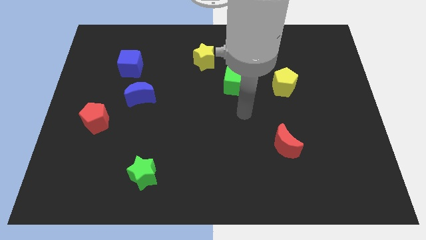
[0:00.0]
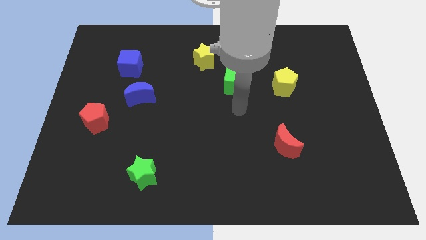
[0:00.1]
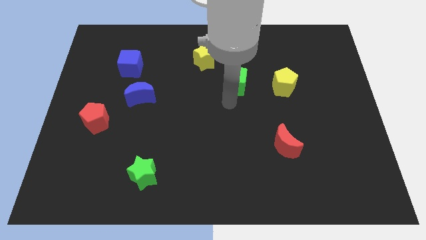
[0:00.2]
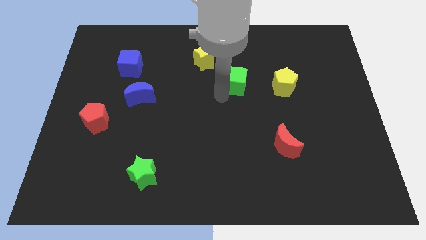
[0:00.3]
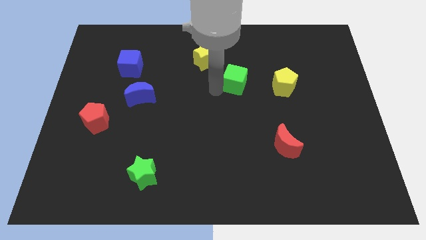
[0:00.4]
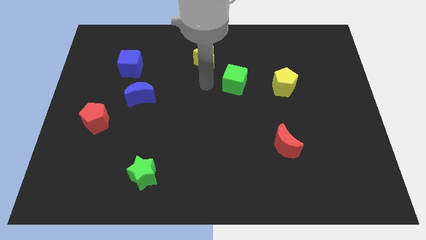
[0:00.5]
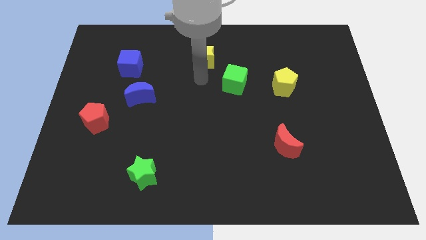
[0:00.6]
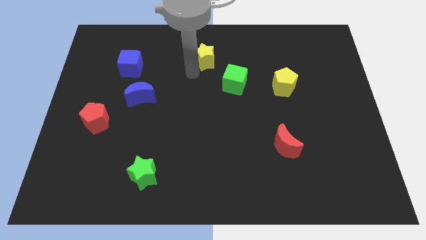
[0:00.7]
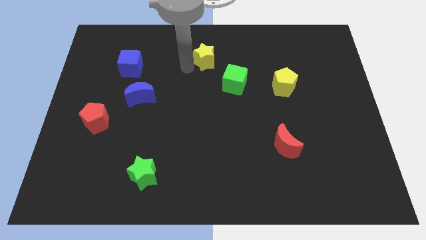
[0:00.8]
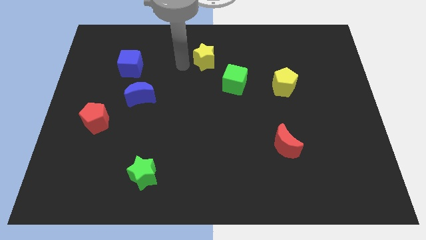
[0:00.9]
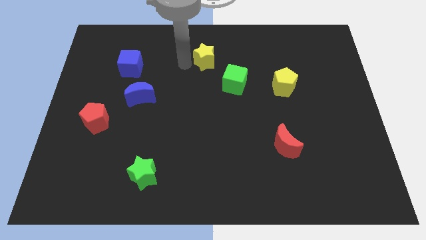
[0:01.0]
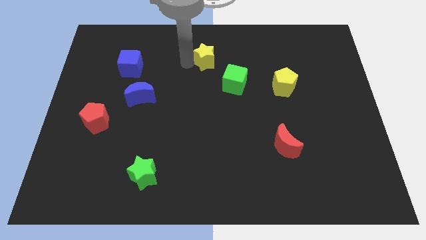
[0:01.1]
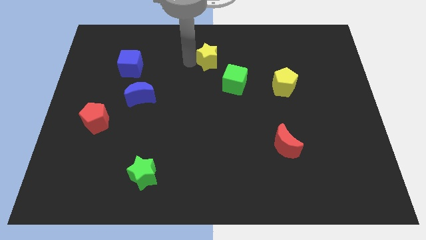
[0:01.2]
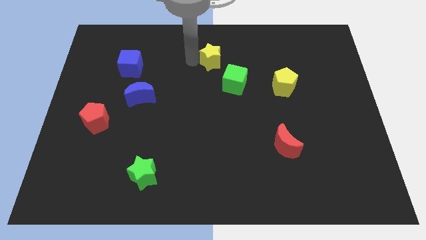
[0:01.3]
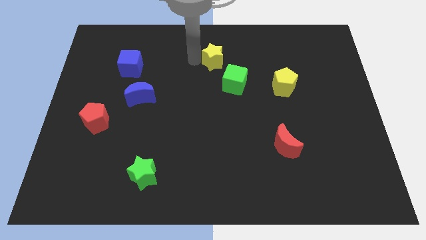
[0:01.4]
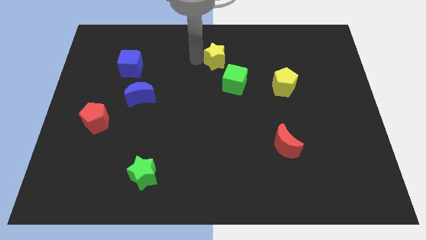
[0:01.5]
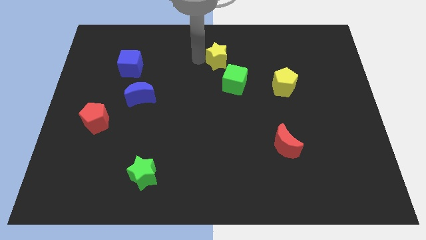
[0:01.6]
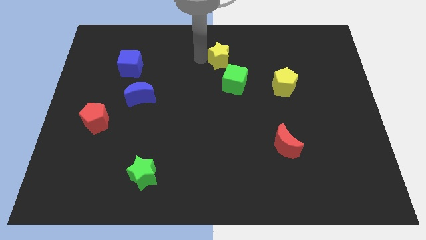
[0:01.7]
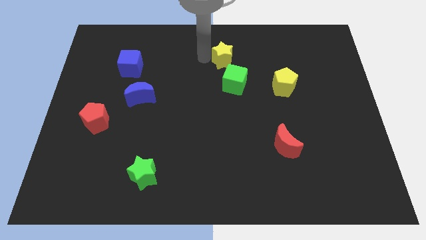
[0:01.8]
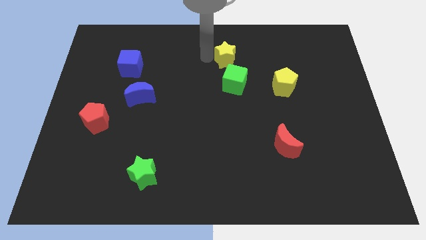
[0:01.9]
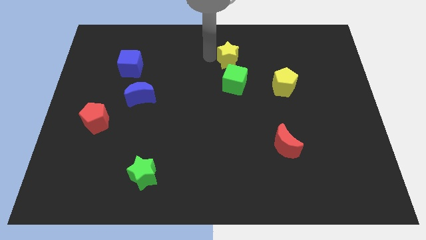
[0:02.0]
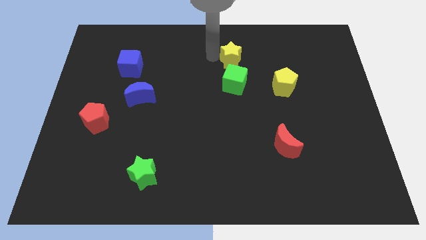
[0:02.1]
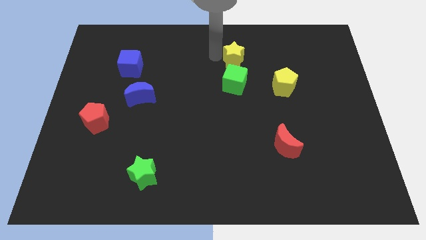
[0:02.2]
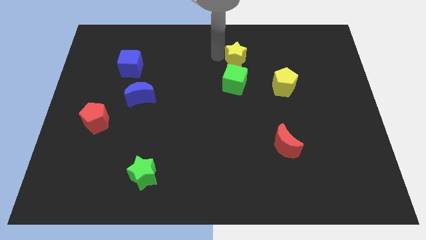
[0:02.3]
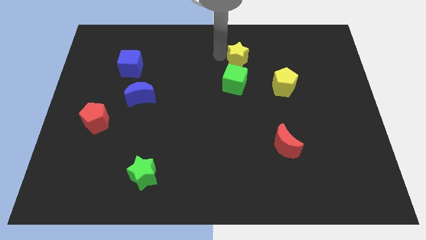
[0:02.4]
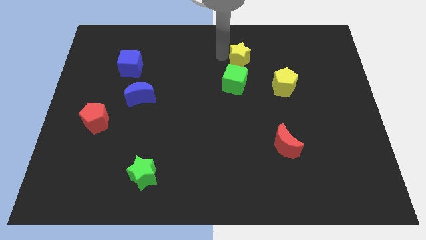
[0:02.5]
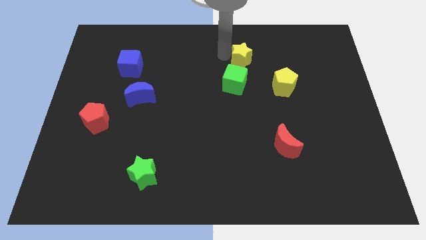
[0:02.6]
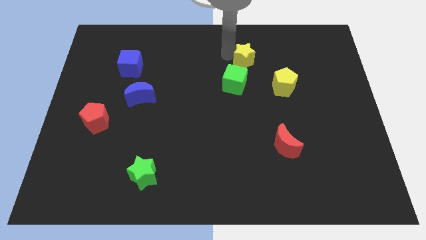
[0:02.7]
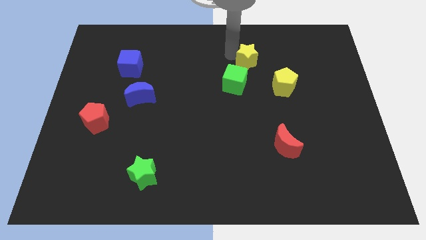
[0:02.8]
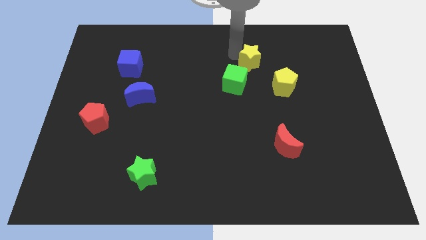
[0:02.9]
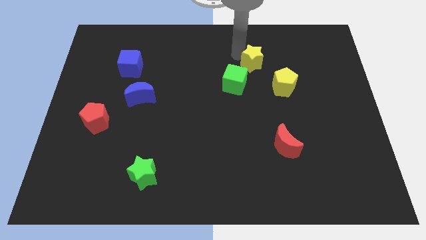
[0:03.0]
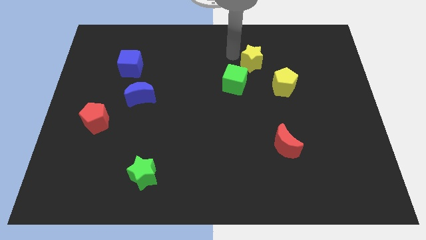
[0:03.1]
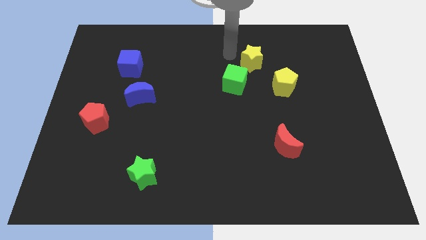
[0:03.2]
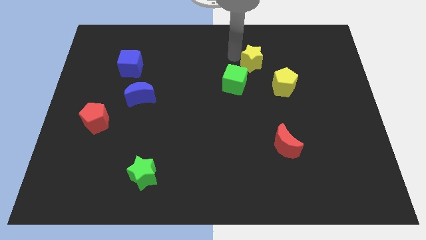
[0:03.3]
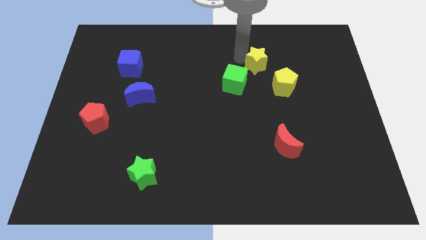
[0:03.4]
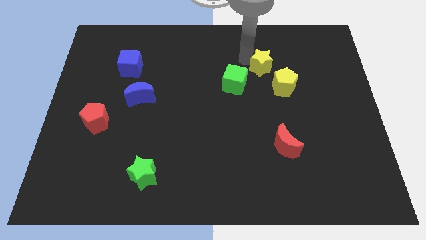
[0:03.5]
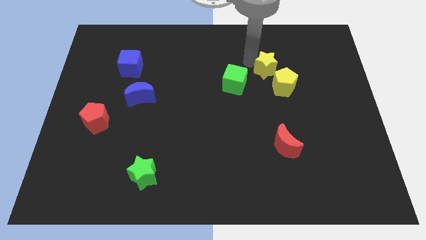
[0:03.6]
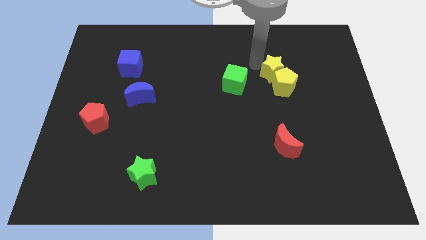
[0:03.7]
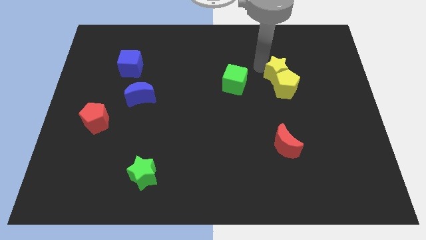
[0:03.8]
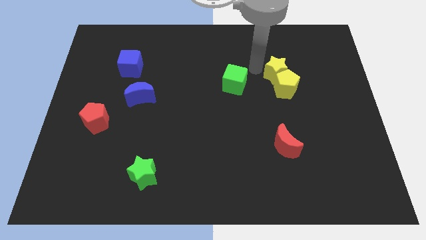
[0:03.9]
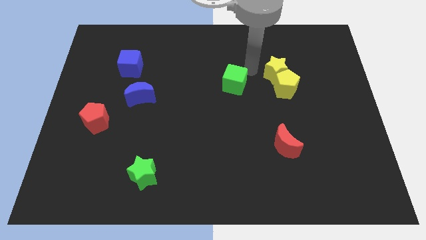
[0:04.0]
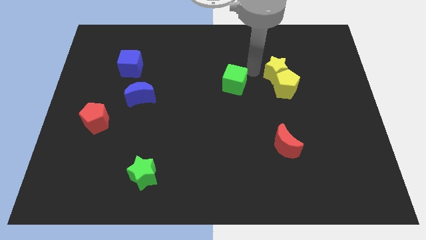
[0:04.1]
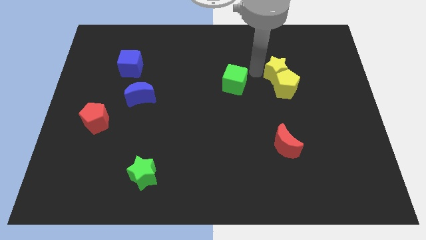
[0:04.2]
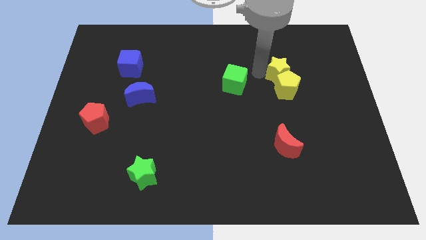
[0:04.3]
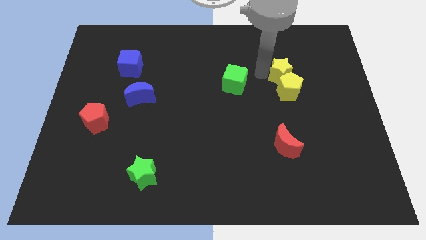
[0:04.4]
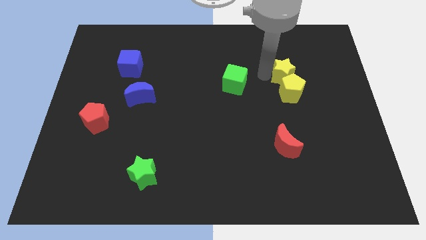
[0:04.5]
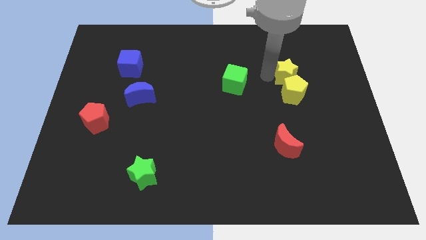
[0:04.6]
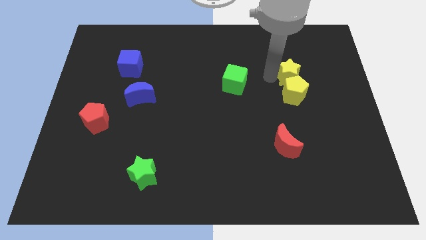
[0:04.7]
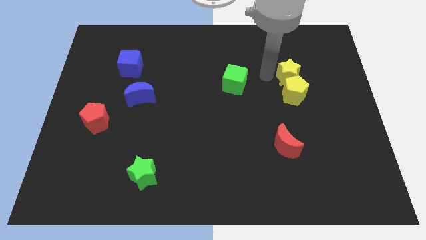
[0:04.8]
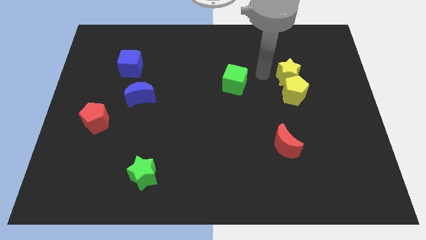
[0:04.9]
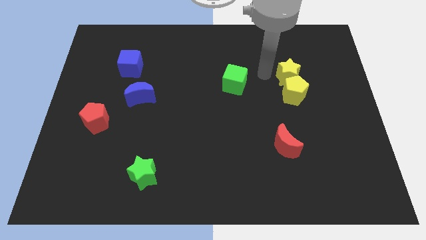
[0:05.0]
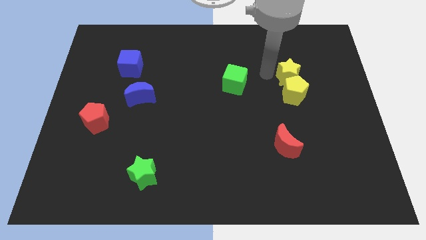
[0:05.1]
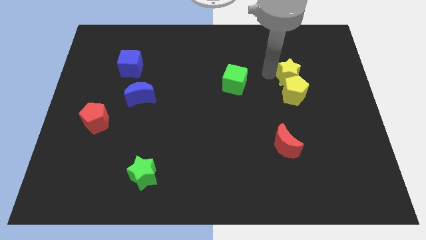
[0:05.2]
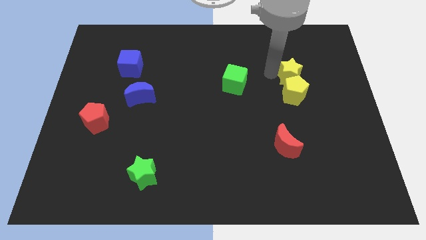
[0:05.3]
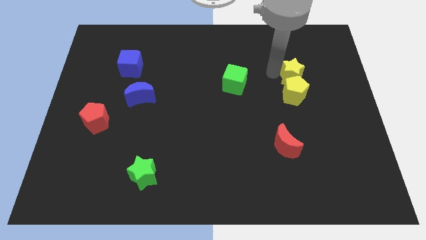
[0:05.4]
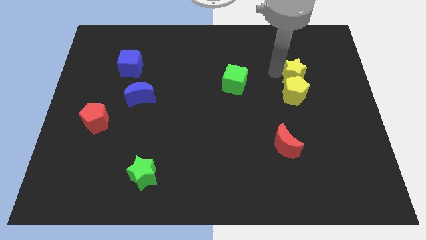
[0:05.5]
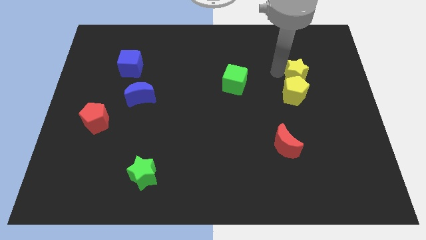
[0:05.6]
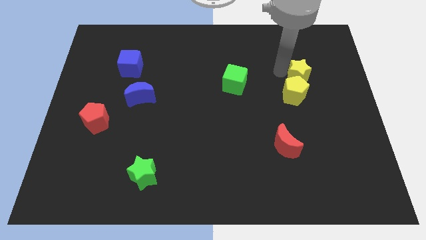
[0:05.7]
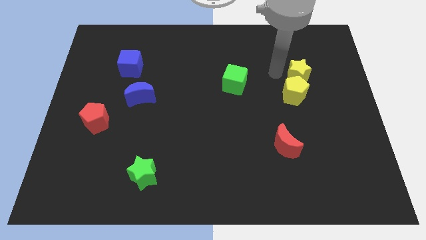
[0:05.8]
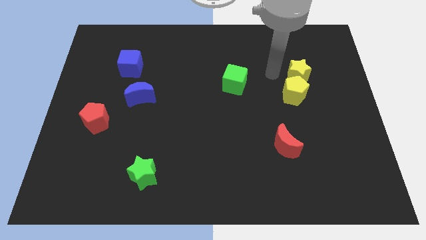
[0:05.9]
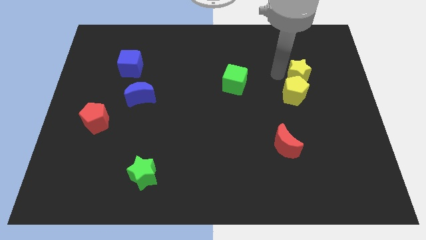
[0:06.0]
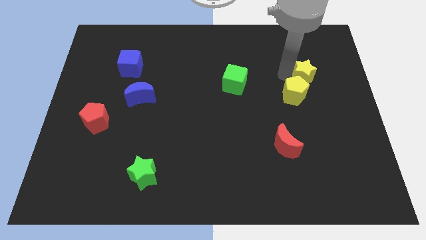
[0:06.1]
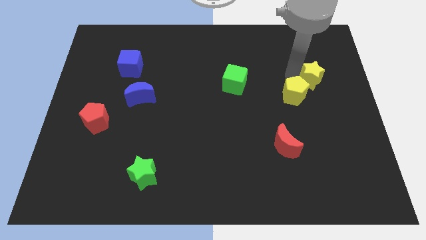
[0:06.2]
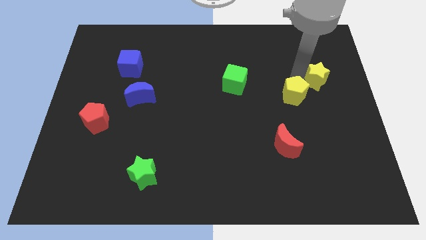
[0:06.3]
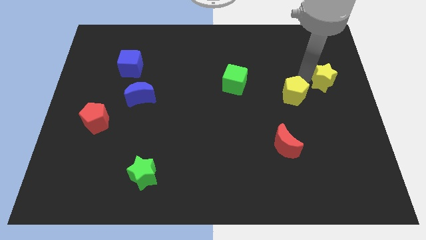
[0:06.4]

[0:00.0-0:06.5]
put the yellow star to the center right

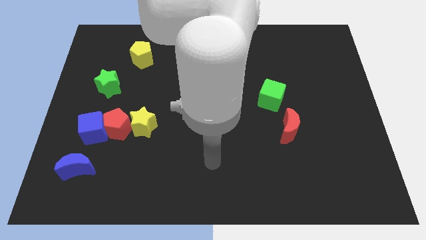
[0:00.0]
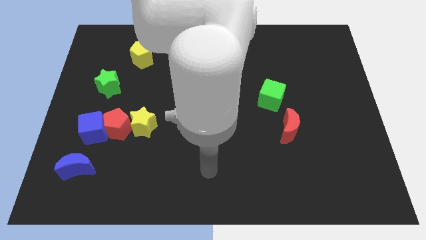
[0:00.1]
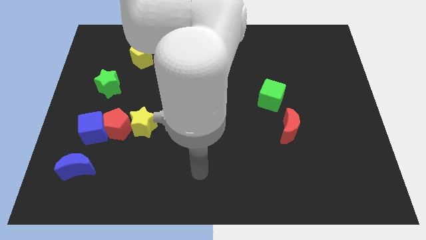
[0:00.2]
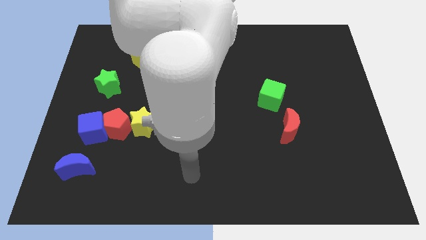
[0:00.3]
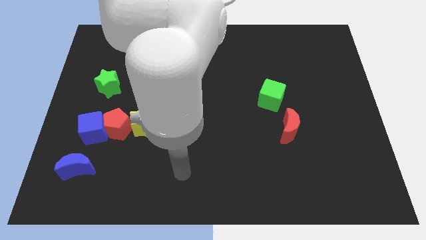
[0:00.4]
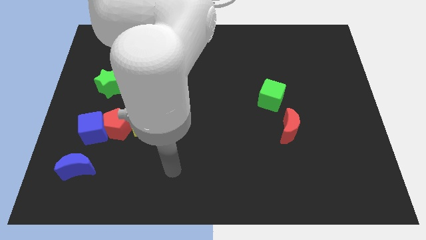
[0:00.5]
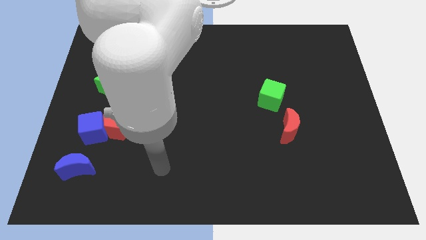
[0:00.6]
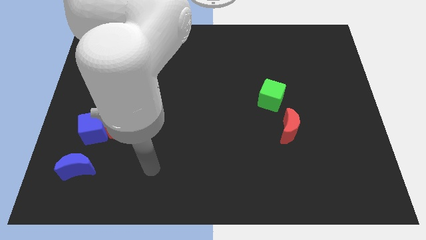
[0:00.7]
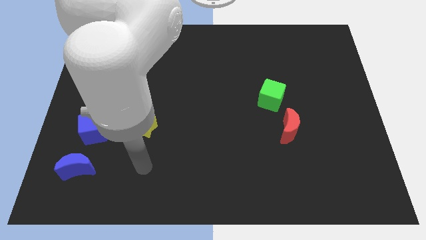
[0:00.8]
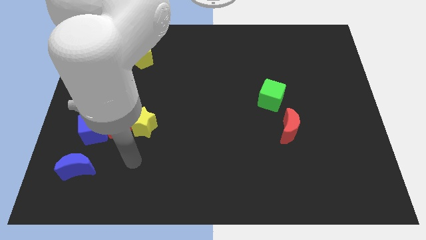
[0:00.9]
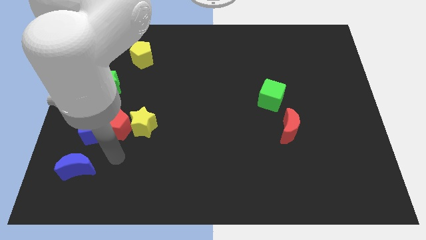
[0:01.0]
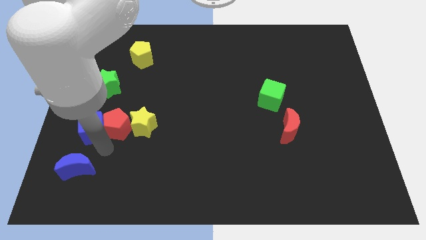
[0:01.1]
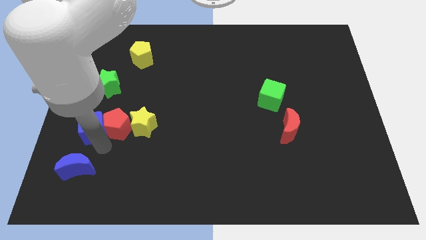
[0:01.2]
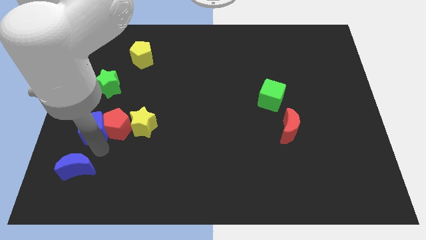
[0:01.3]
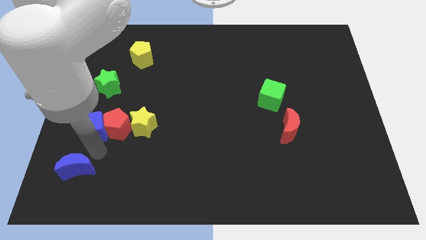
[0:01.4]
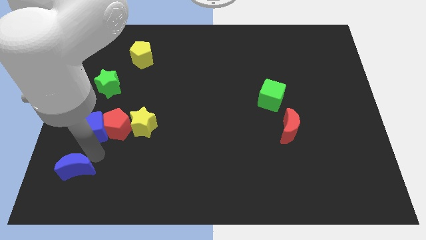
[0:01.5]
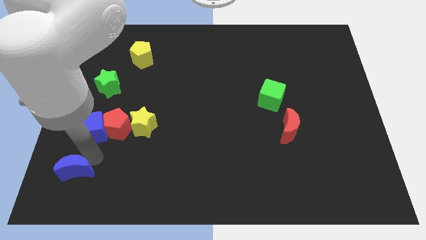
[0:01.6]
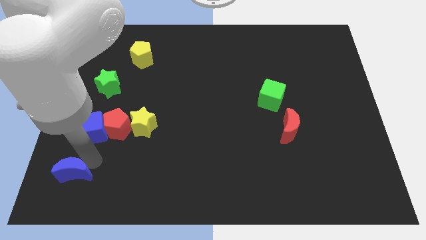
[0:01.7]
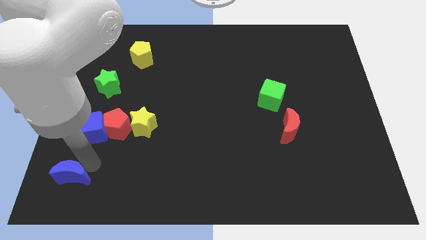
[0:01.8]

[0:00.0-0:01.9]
move the blue moon to the lower left corner
